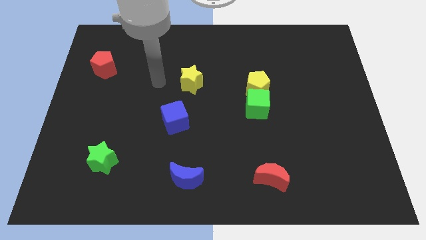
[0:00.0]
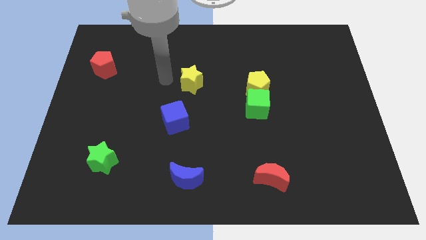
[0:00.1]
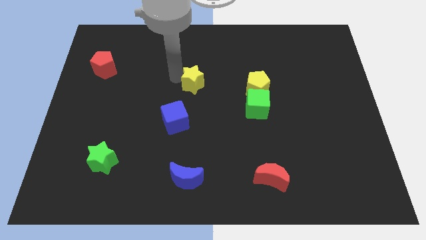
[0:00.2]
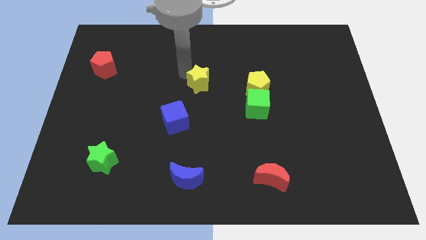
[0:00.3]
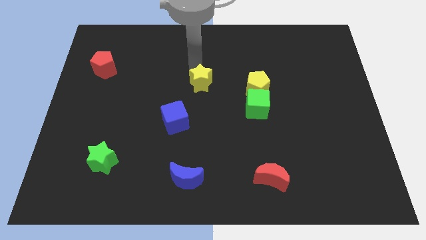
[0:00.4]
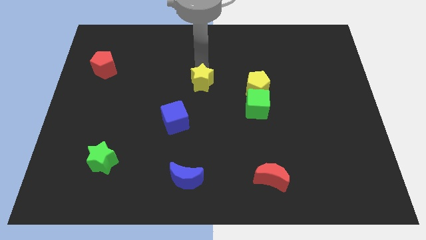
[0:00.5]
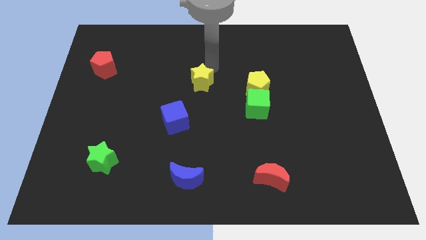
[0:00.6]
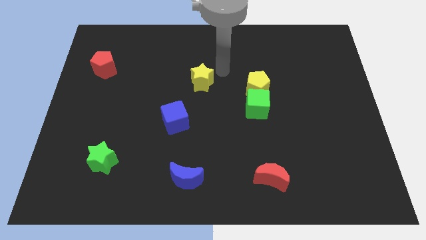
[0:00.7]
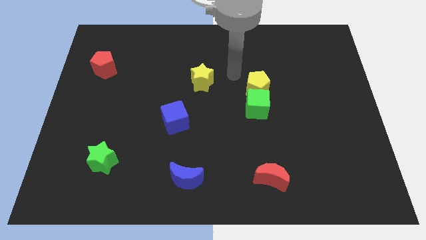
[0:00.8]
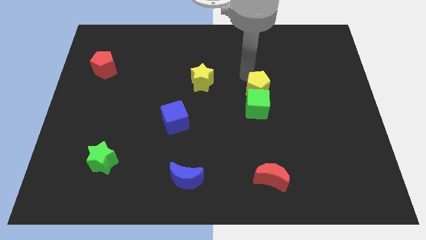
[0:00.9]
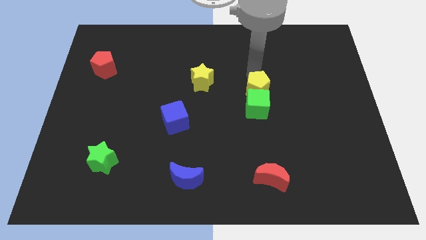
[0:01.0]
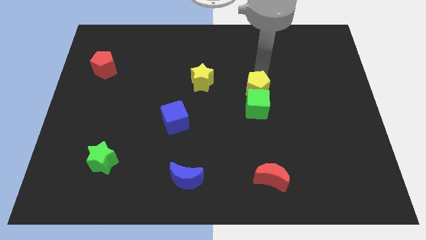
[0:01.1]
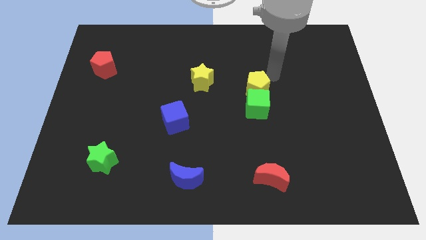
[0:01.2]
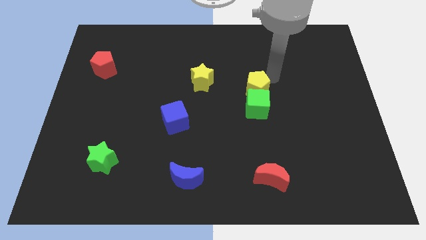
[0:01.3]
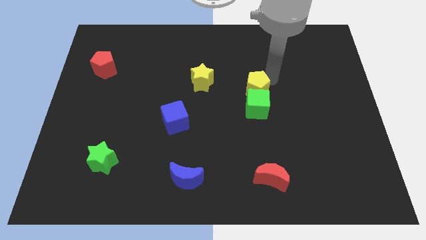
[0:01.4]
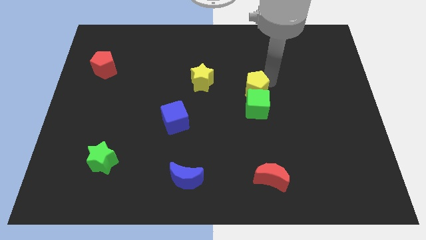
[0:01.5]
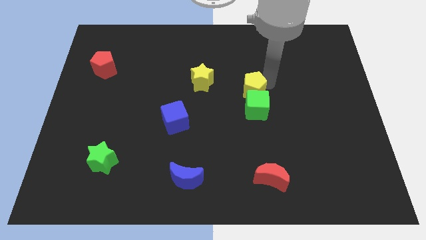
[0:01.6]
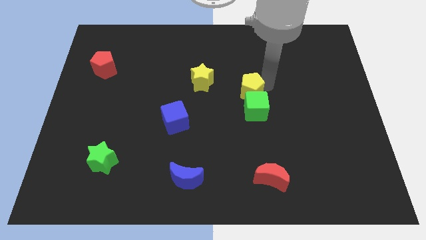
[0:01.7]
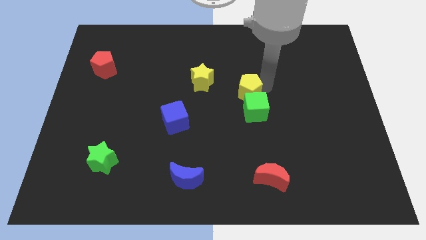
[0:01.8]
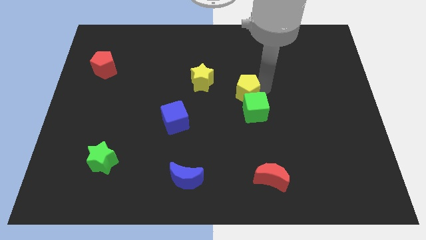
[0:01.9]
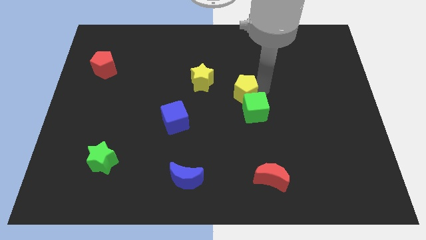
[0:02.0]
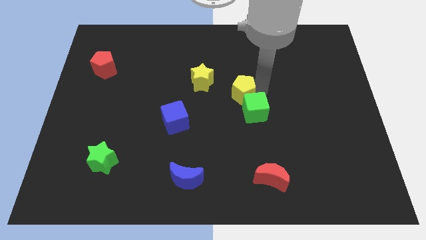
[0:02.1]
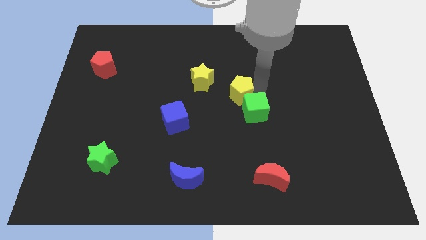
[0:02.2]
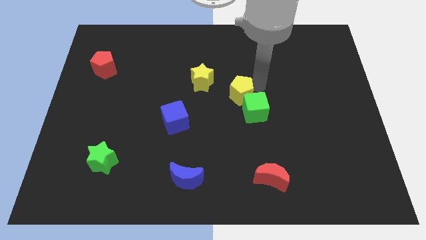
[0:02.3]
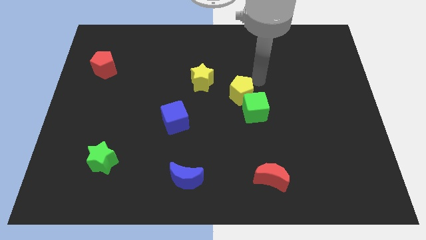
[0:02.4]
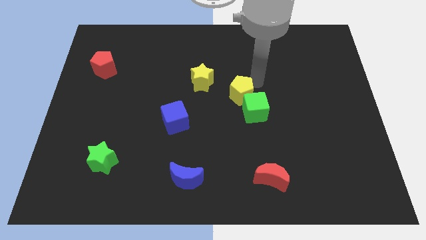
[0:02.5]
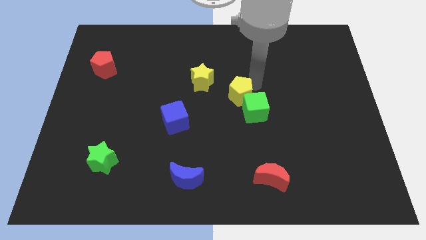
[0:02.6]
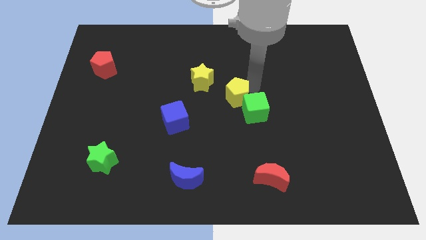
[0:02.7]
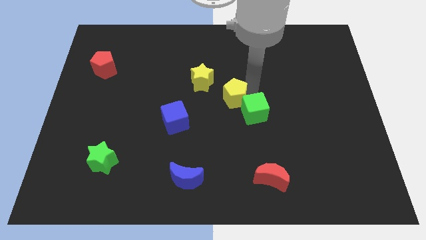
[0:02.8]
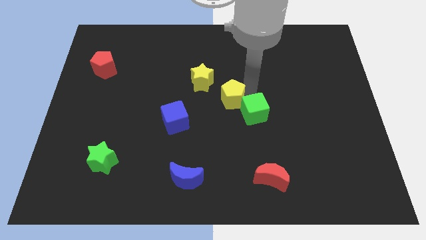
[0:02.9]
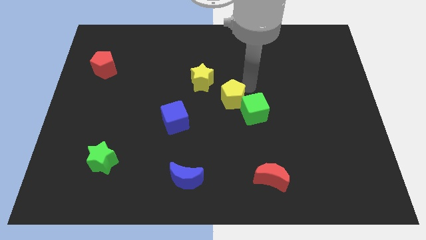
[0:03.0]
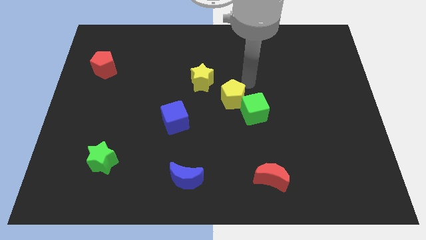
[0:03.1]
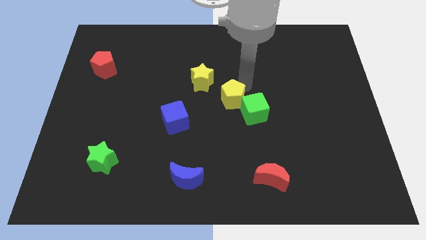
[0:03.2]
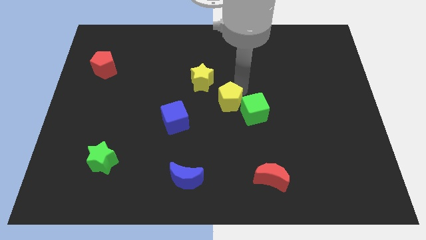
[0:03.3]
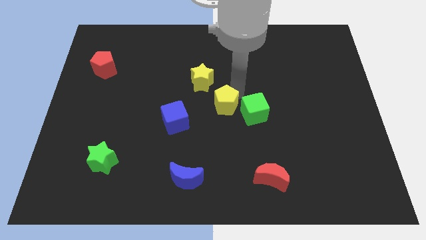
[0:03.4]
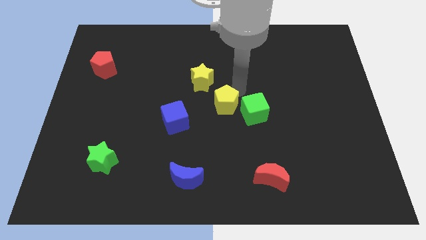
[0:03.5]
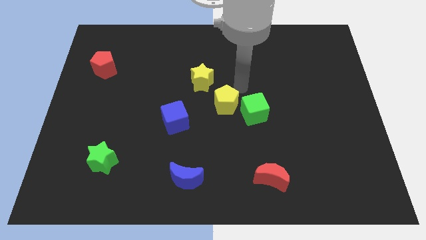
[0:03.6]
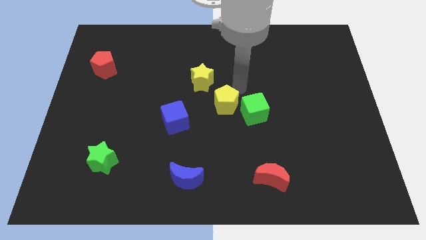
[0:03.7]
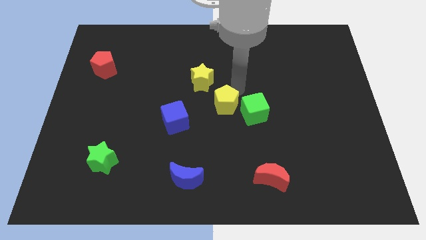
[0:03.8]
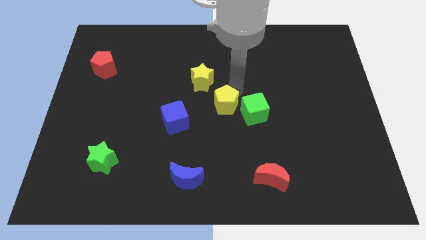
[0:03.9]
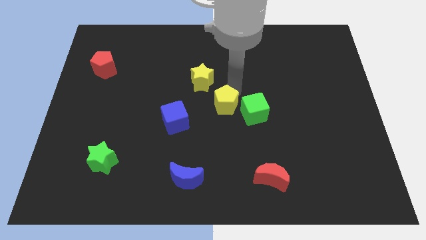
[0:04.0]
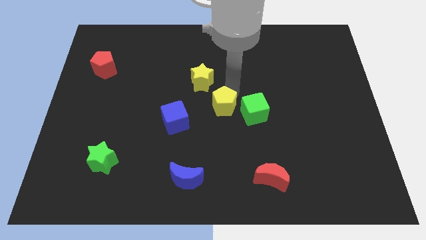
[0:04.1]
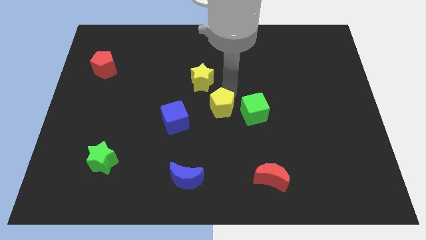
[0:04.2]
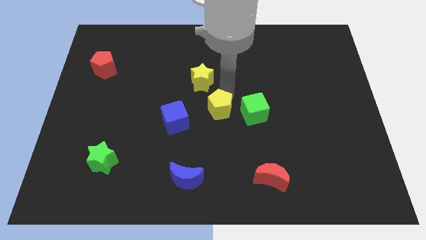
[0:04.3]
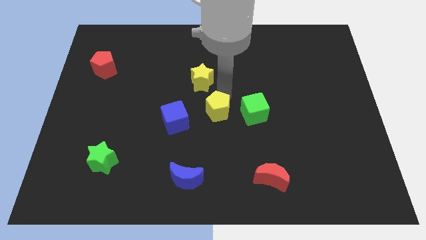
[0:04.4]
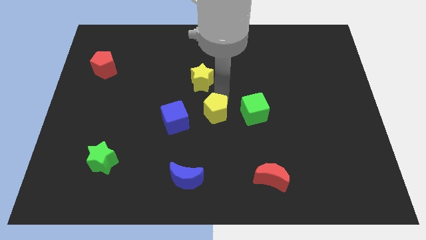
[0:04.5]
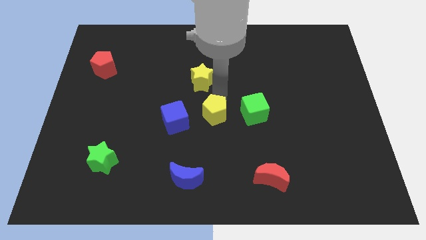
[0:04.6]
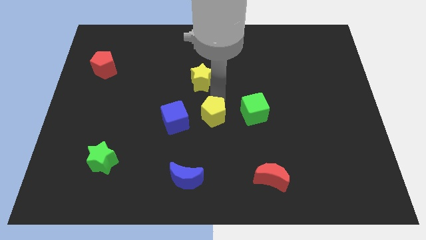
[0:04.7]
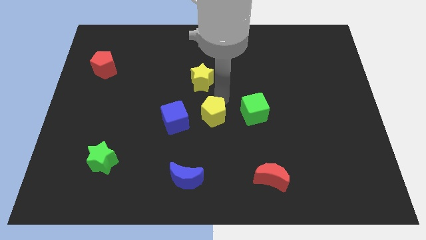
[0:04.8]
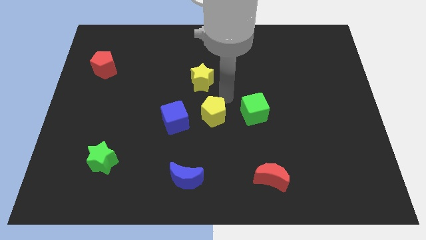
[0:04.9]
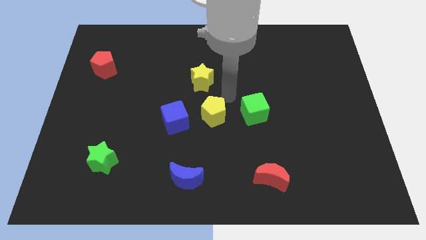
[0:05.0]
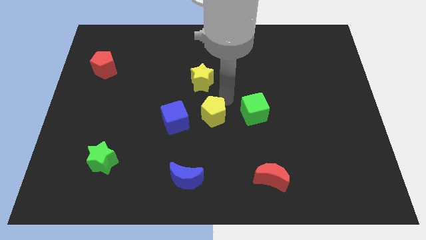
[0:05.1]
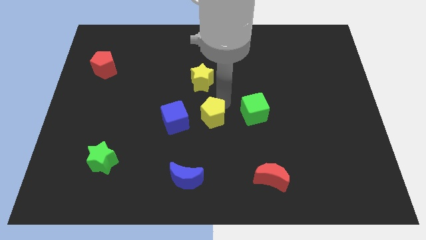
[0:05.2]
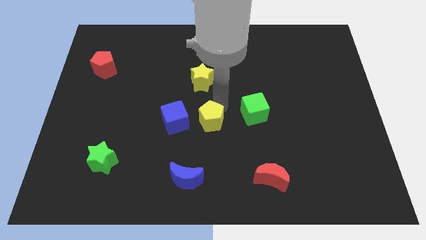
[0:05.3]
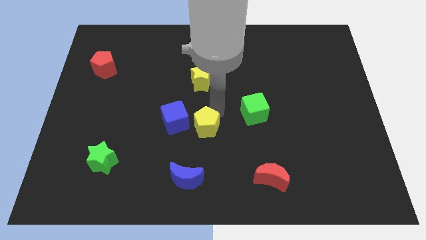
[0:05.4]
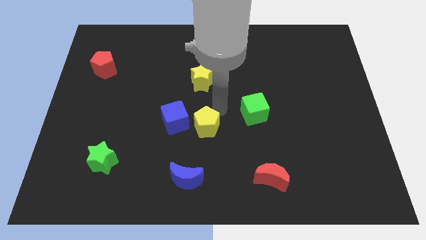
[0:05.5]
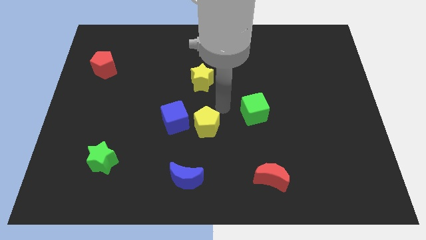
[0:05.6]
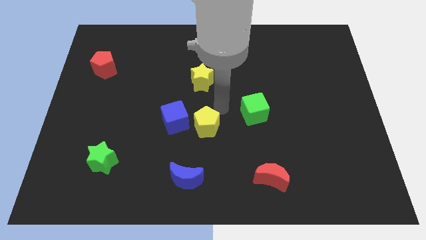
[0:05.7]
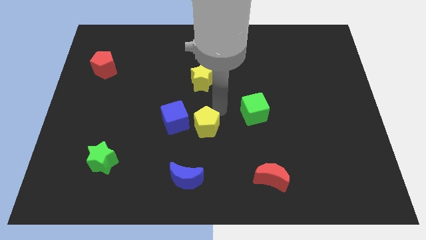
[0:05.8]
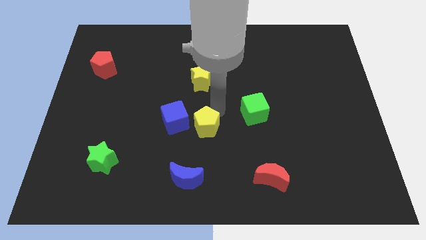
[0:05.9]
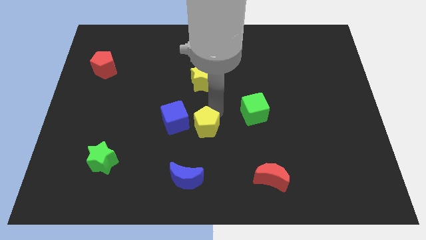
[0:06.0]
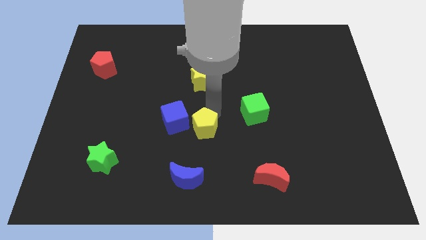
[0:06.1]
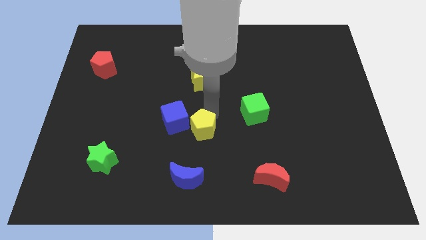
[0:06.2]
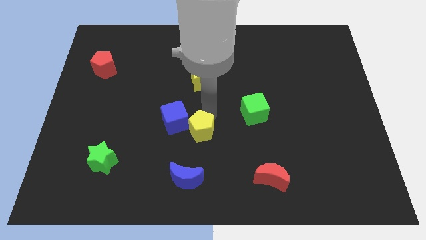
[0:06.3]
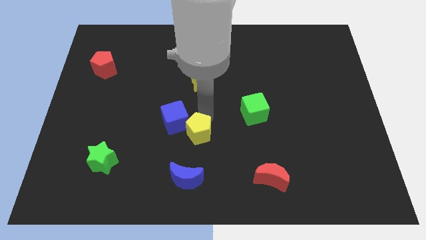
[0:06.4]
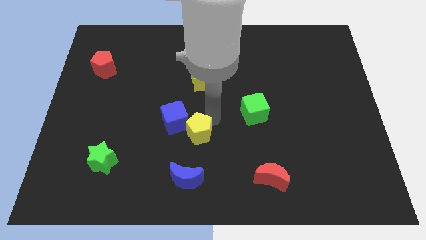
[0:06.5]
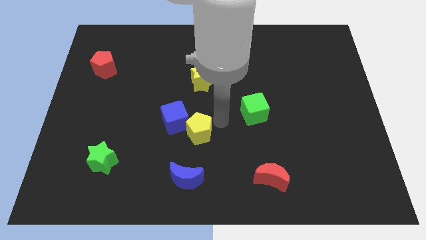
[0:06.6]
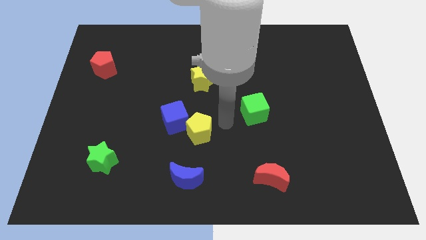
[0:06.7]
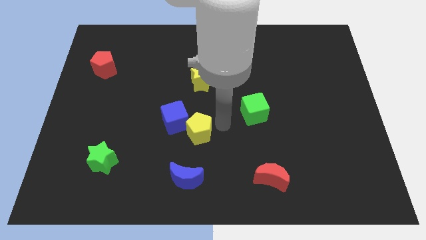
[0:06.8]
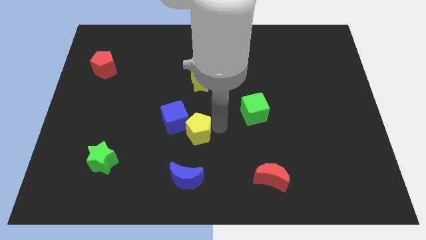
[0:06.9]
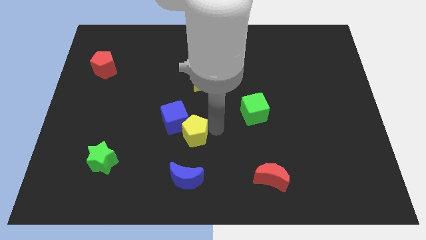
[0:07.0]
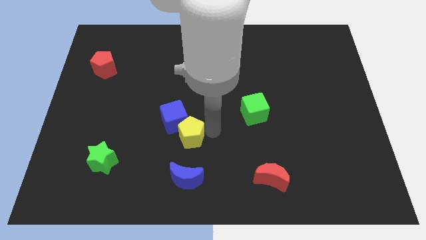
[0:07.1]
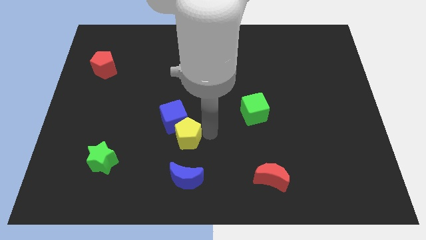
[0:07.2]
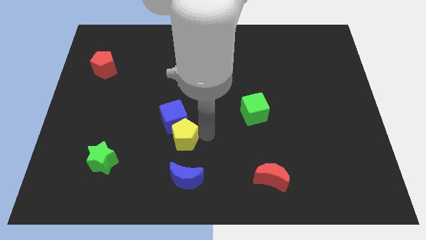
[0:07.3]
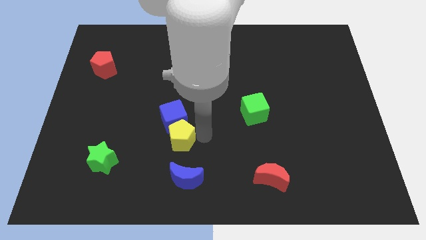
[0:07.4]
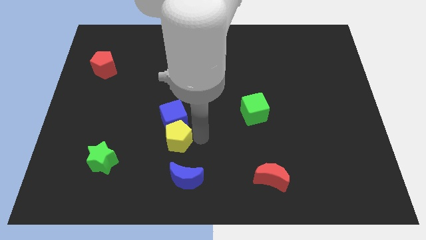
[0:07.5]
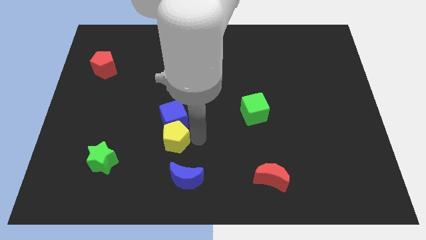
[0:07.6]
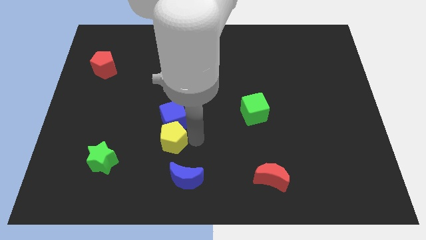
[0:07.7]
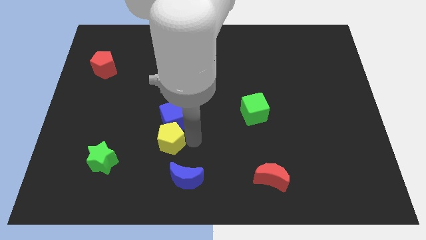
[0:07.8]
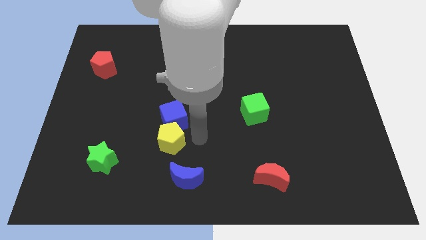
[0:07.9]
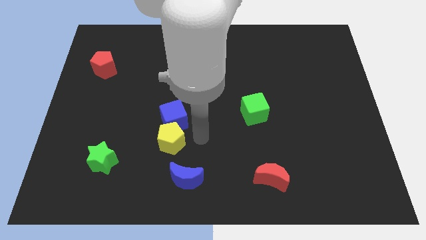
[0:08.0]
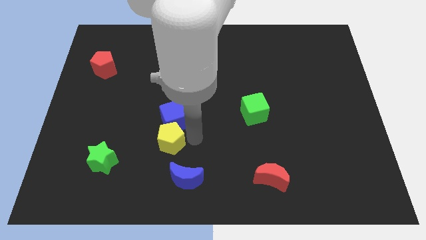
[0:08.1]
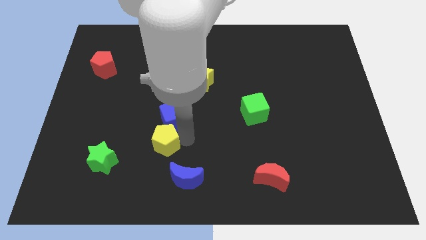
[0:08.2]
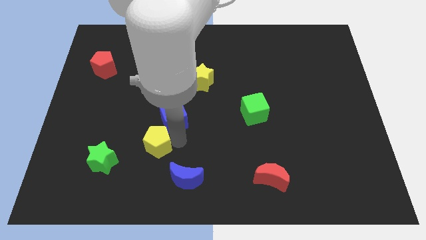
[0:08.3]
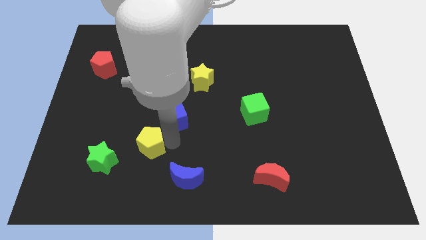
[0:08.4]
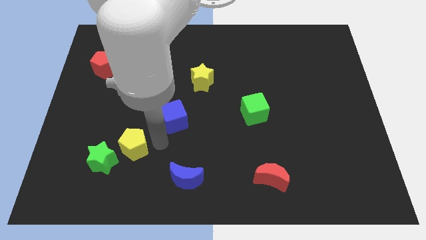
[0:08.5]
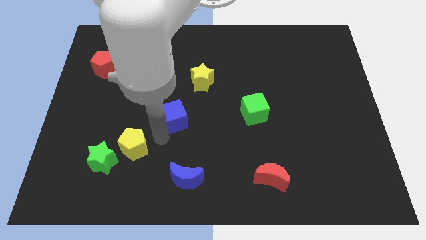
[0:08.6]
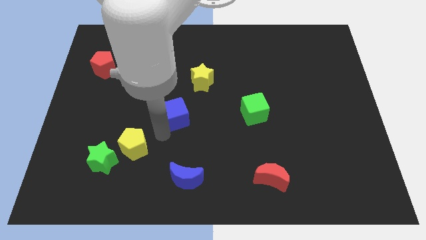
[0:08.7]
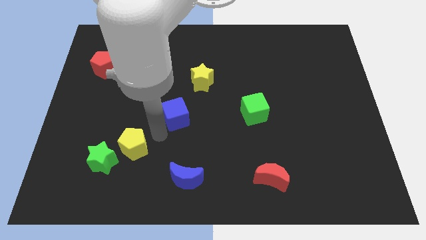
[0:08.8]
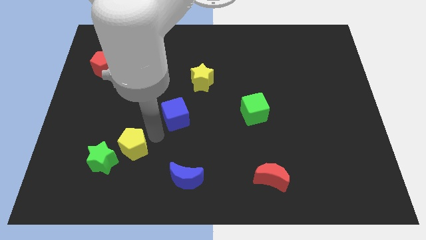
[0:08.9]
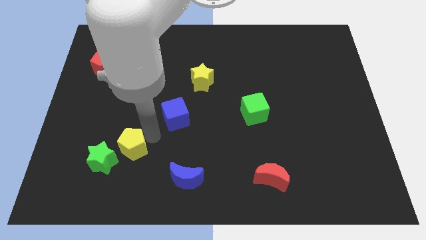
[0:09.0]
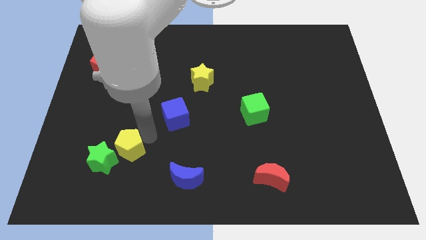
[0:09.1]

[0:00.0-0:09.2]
move the yellow pentagon towards the green star
